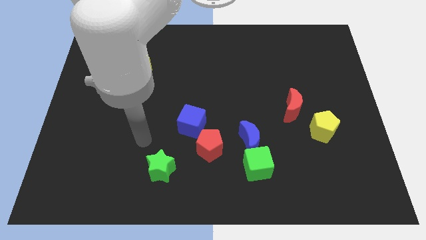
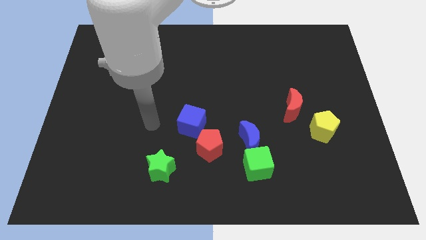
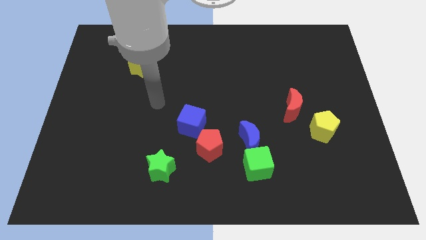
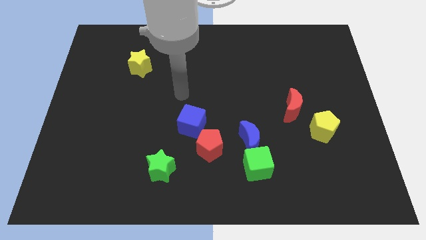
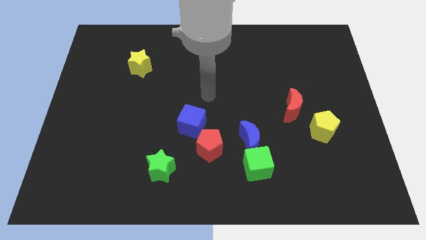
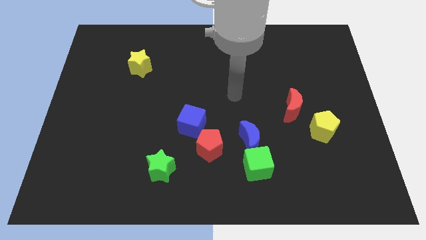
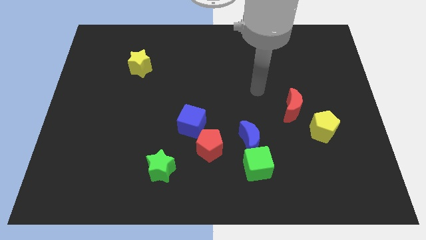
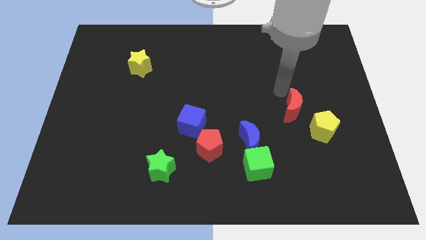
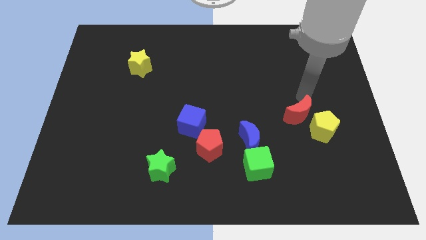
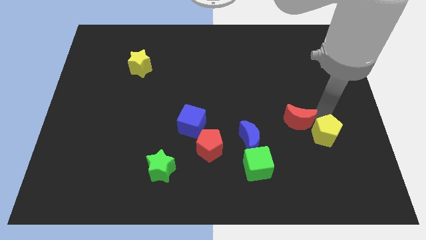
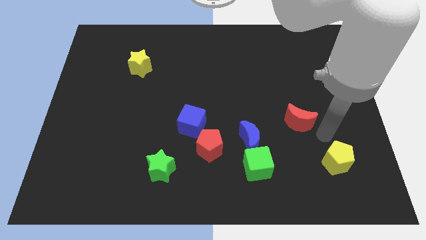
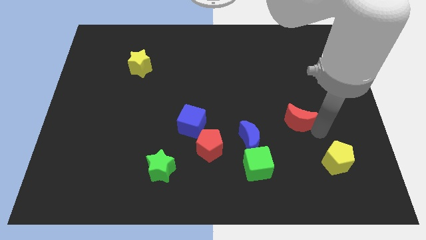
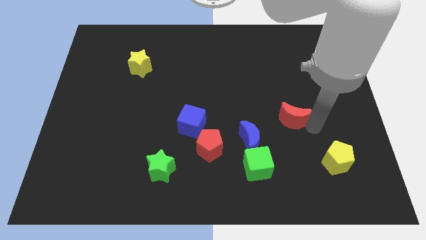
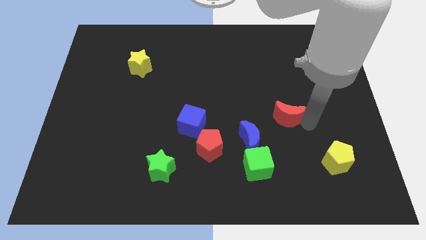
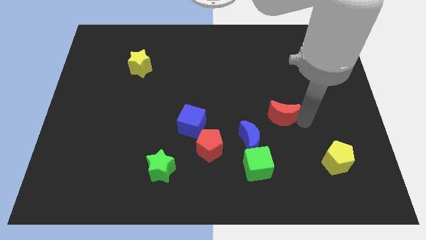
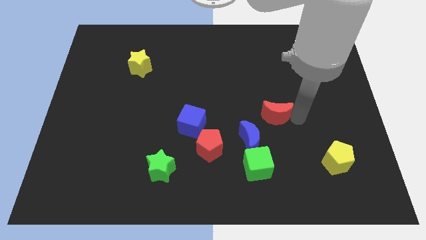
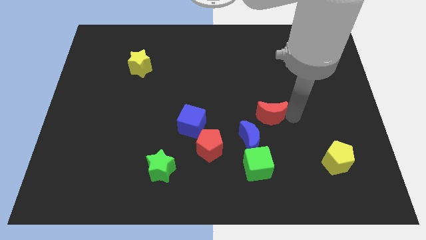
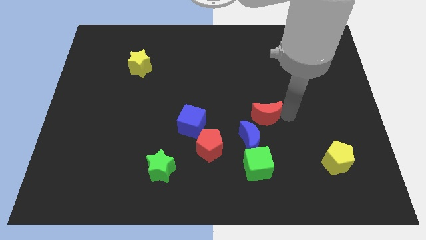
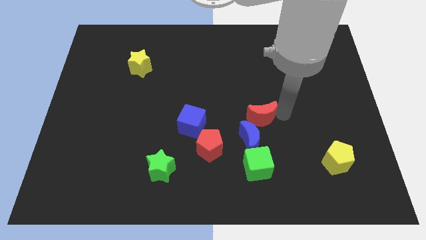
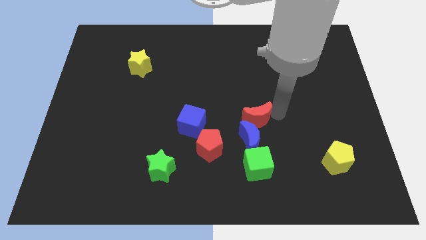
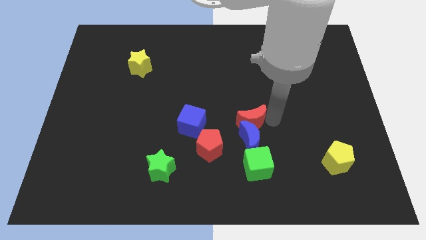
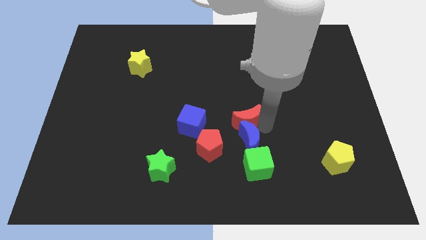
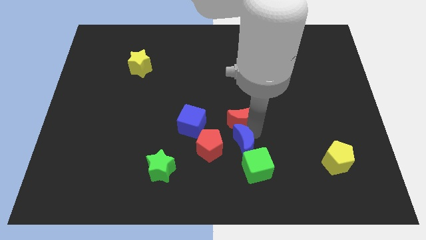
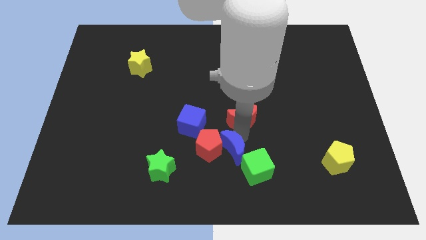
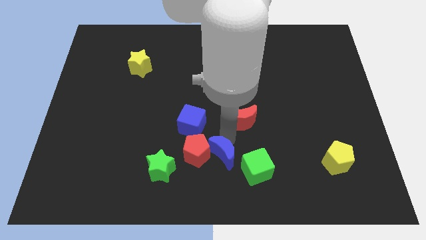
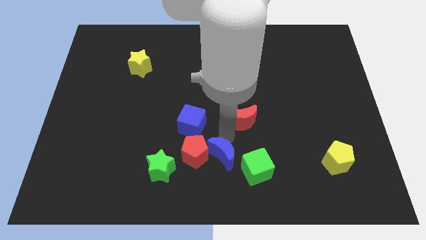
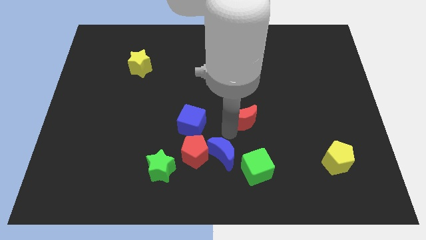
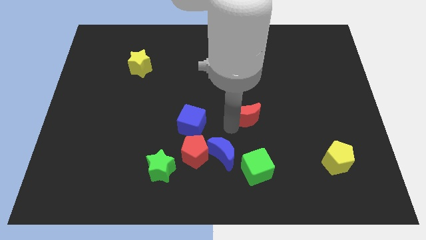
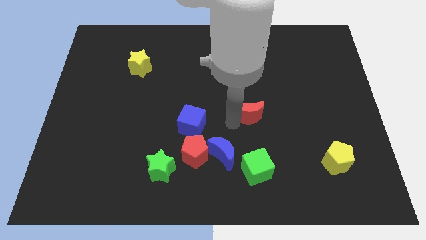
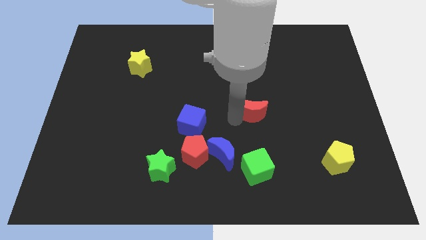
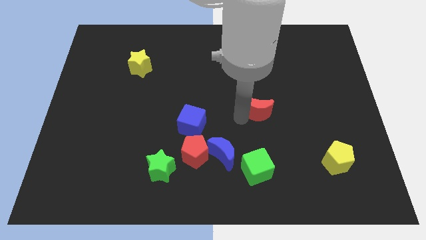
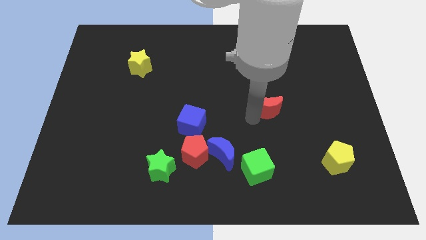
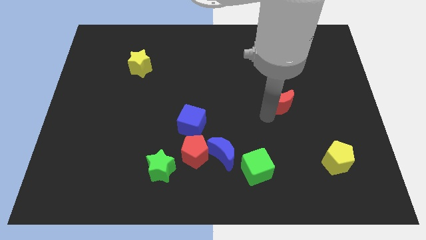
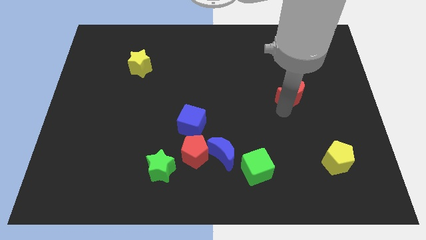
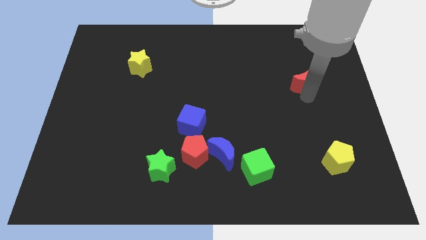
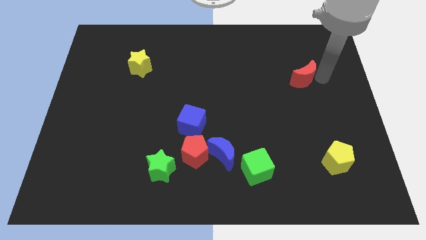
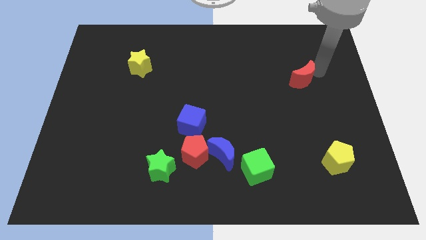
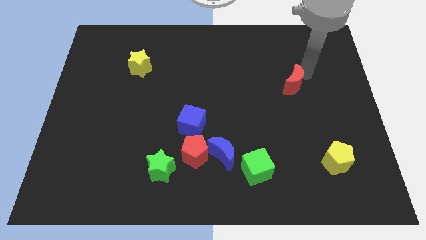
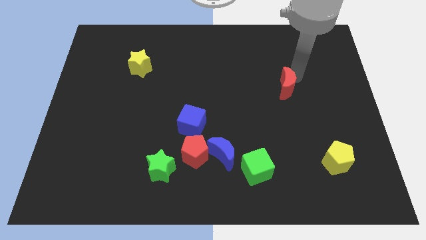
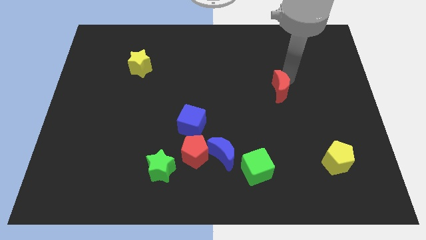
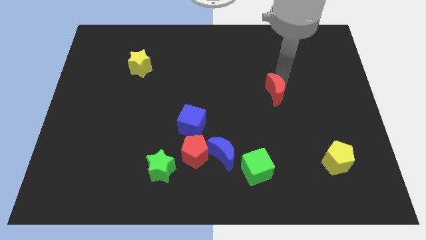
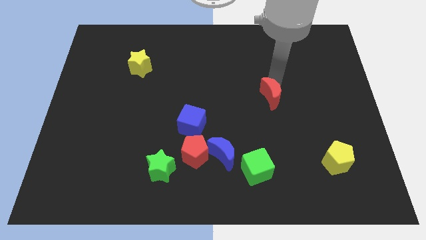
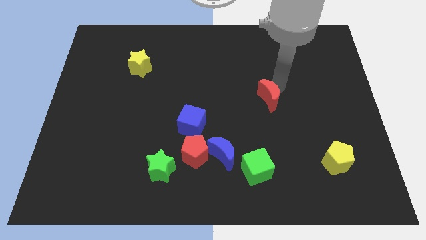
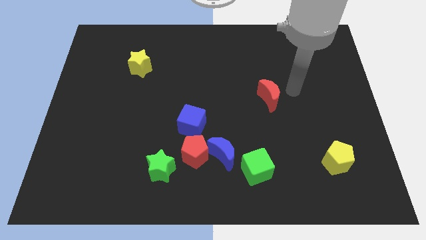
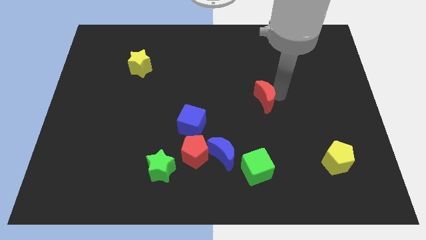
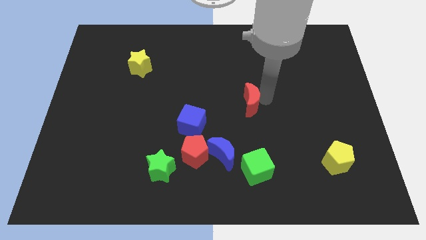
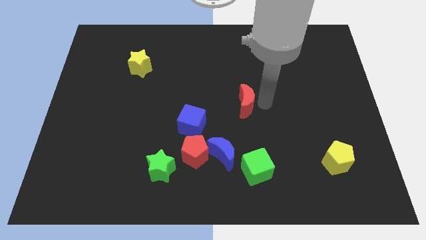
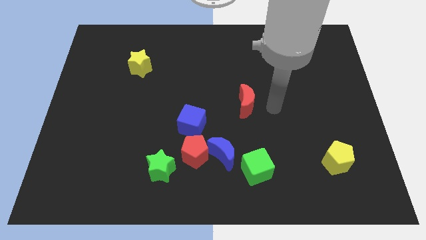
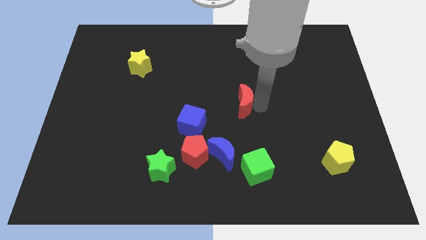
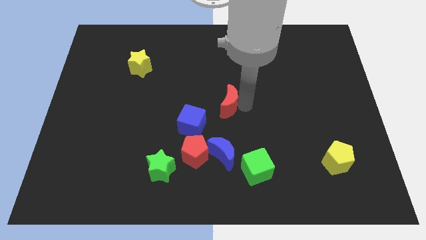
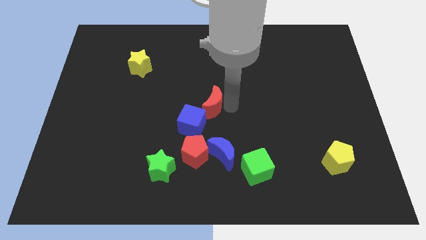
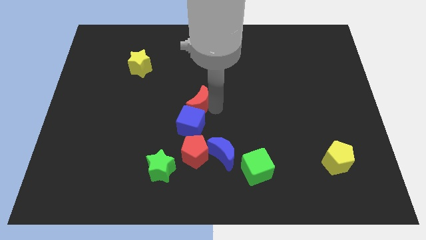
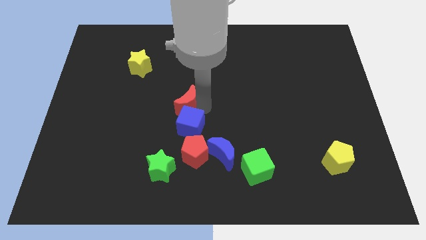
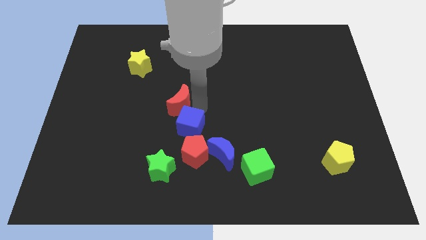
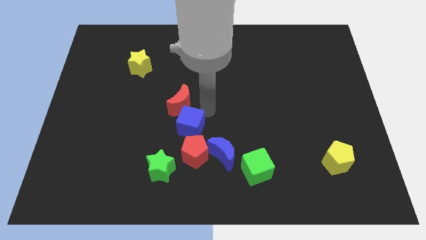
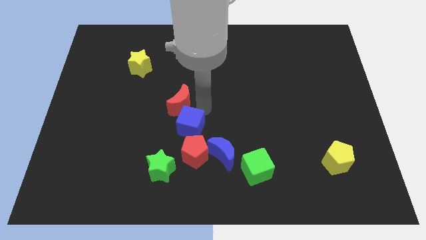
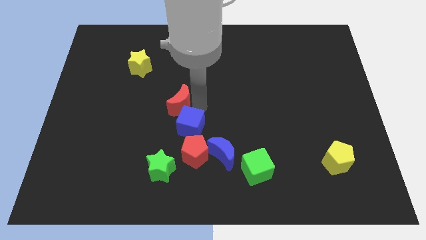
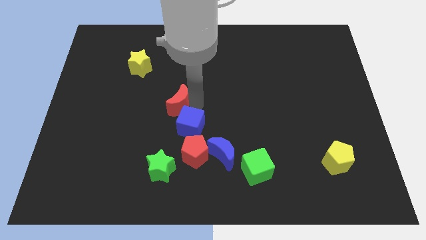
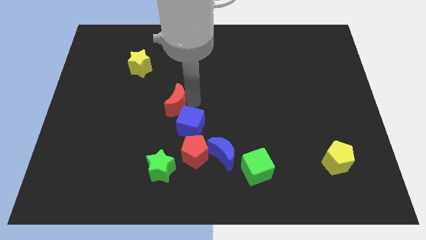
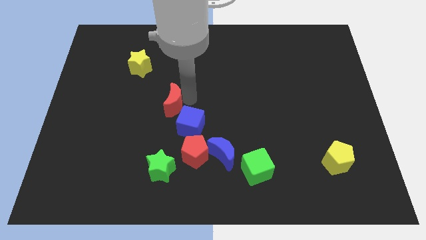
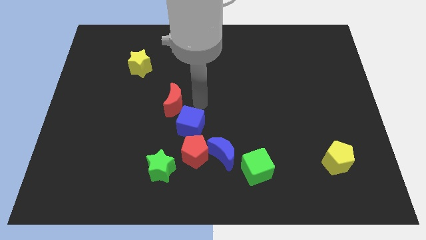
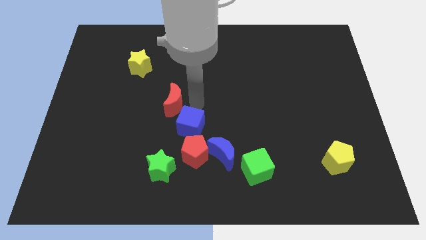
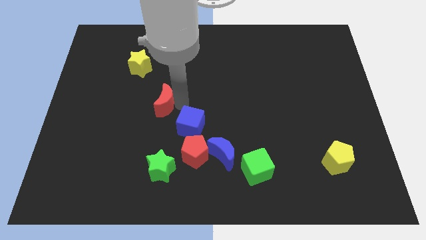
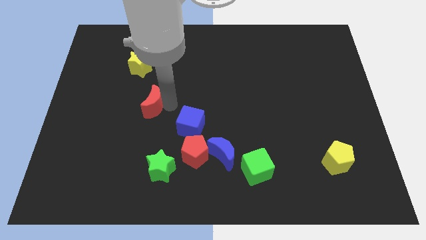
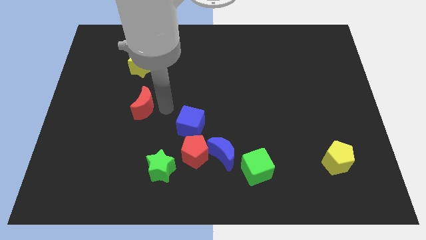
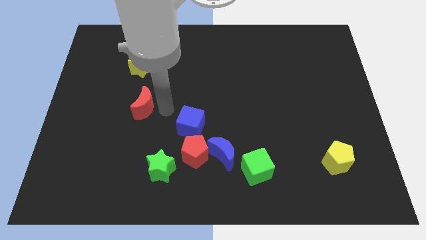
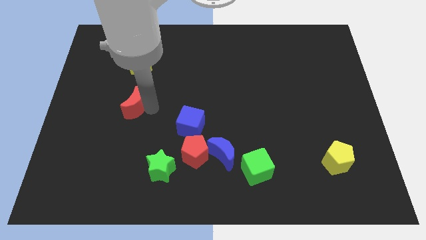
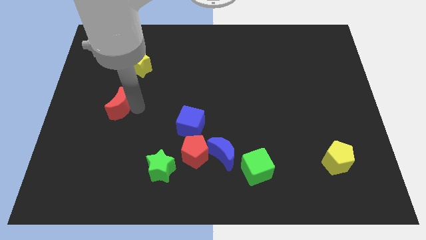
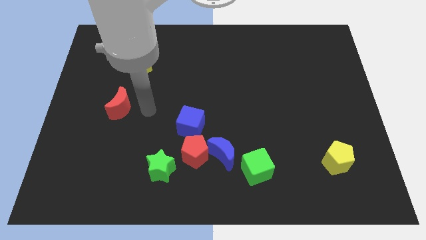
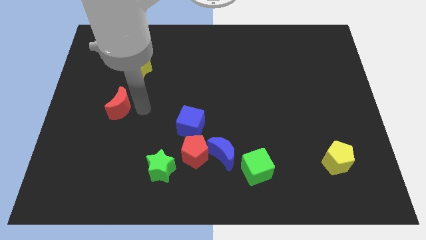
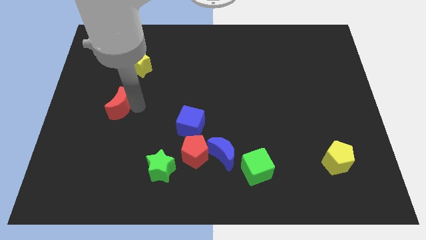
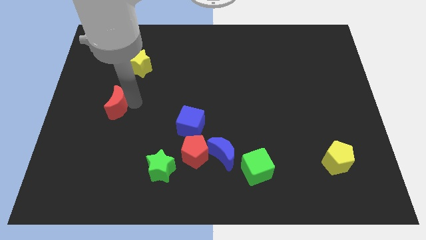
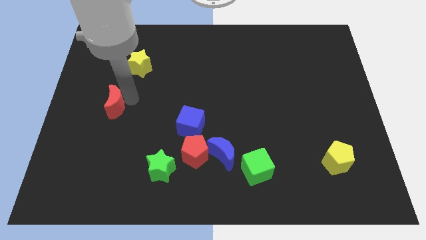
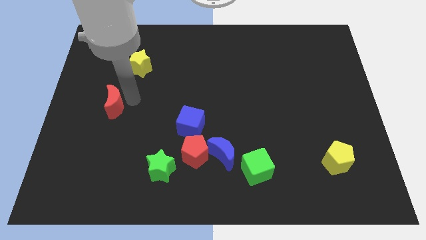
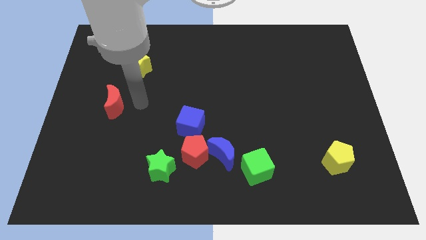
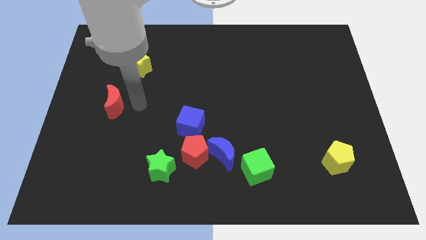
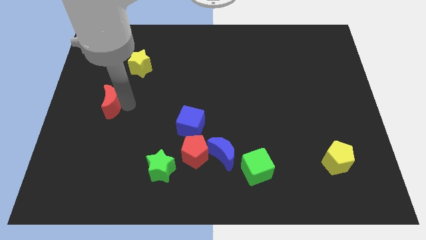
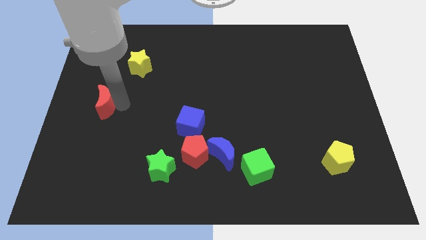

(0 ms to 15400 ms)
push the red moon to the left side
